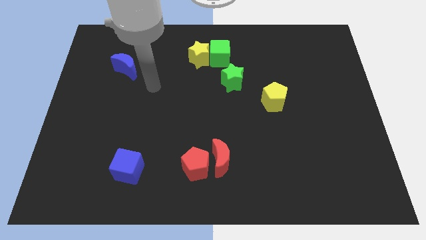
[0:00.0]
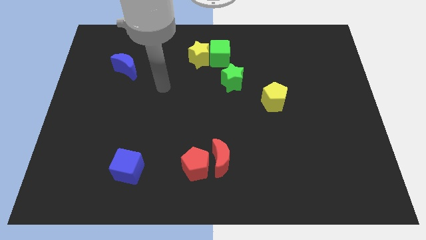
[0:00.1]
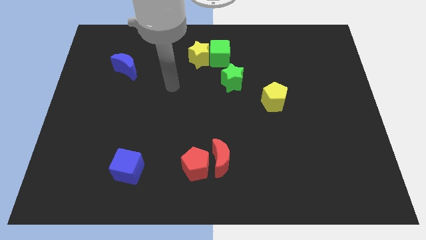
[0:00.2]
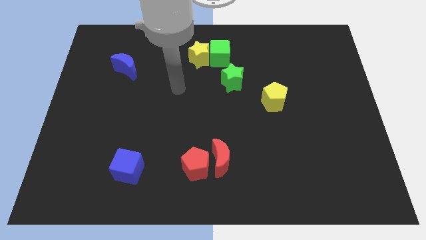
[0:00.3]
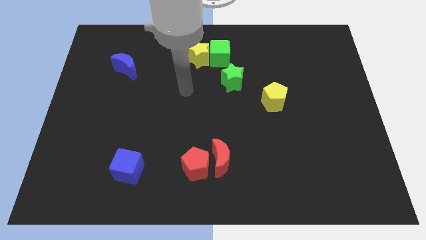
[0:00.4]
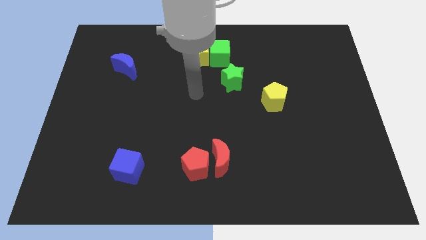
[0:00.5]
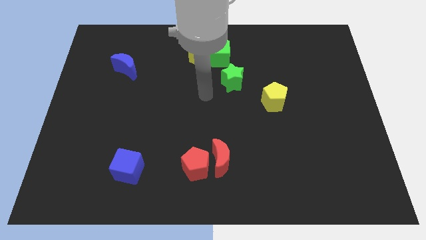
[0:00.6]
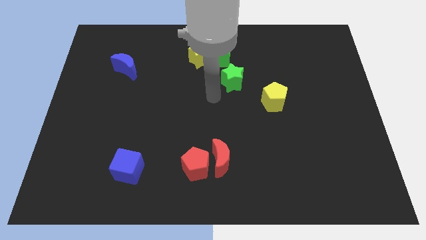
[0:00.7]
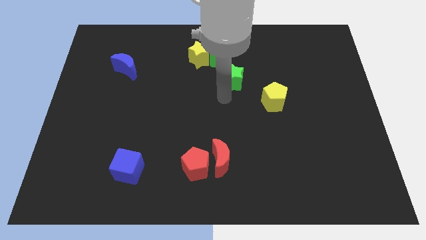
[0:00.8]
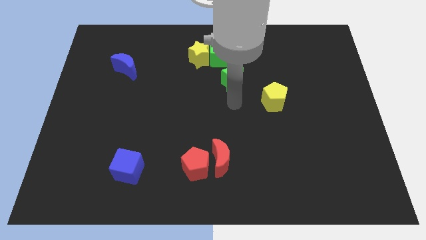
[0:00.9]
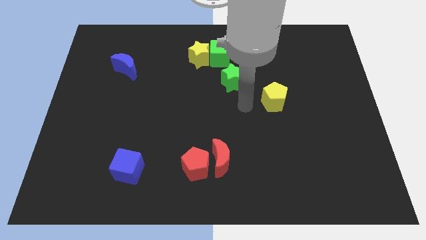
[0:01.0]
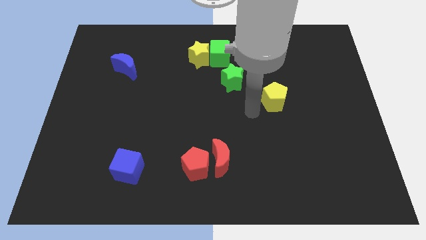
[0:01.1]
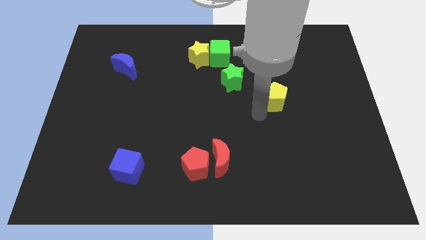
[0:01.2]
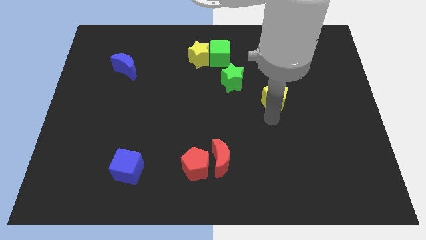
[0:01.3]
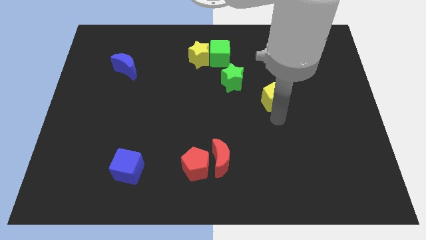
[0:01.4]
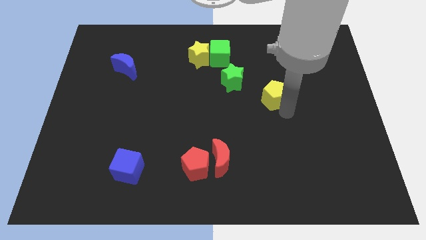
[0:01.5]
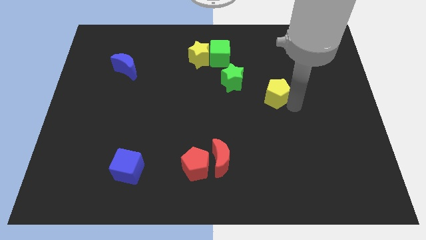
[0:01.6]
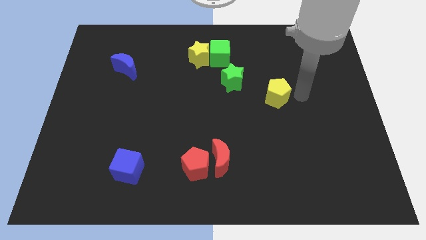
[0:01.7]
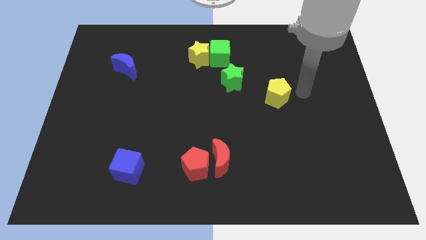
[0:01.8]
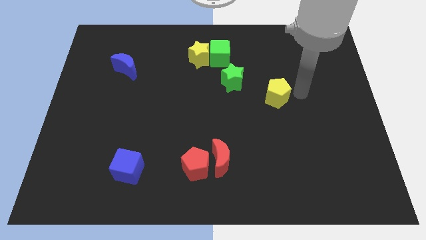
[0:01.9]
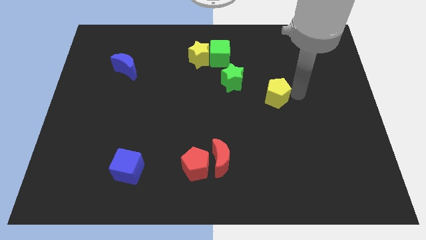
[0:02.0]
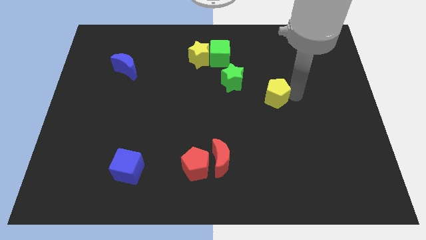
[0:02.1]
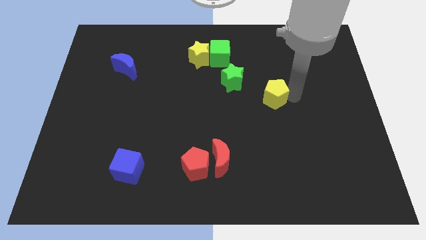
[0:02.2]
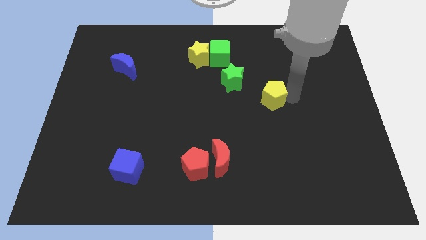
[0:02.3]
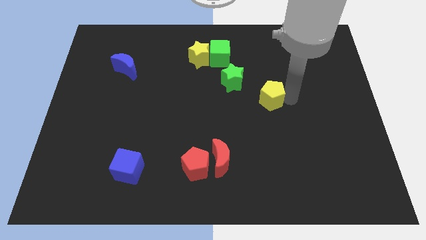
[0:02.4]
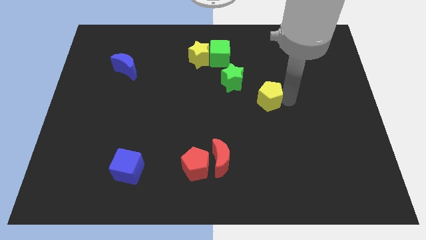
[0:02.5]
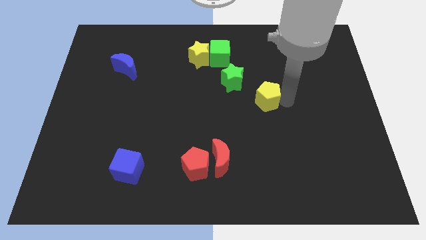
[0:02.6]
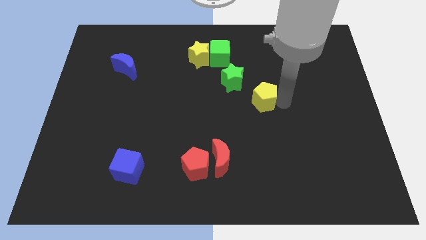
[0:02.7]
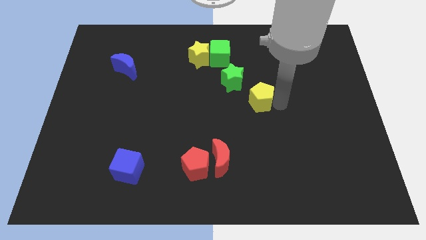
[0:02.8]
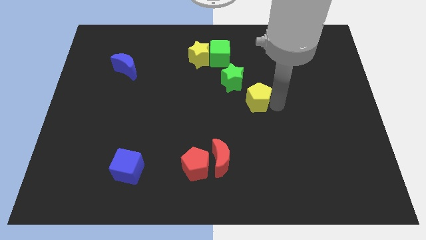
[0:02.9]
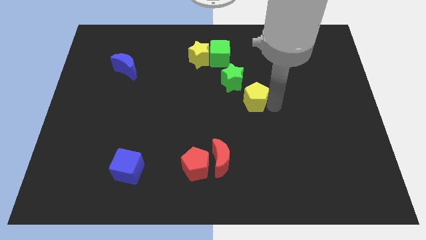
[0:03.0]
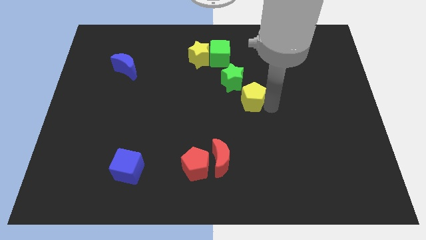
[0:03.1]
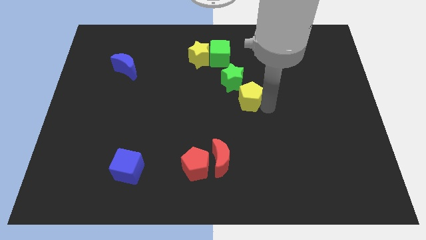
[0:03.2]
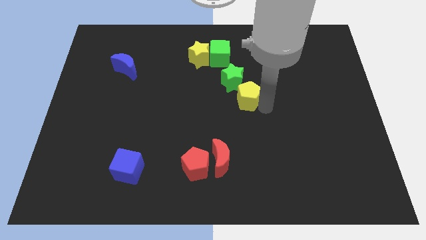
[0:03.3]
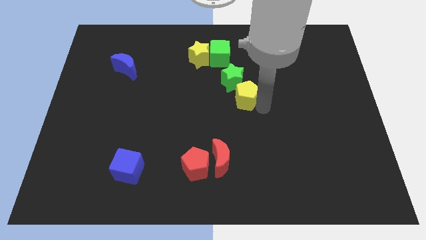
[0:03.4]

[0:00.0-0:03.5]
slide the yellow pentagon somewhat to the left

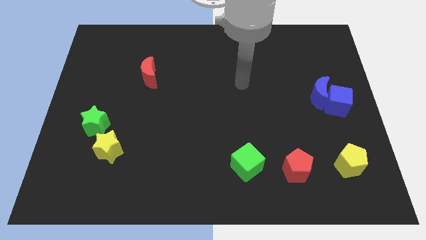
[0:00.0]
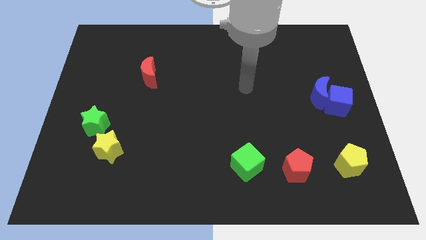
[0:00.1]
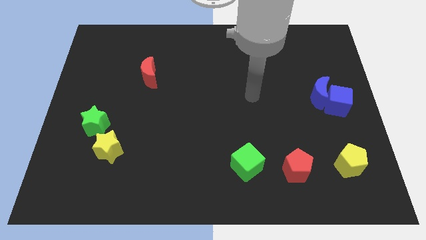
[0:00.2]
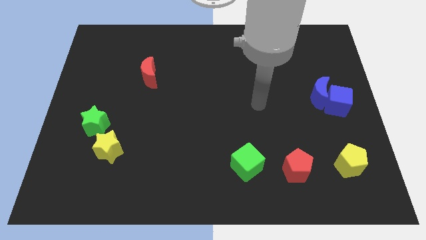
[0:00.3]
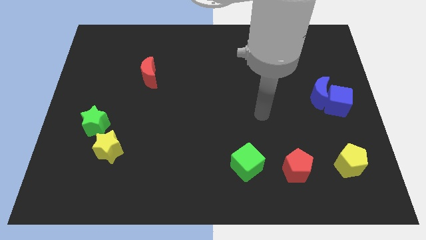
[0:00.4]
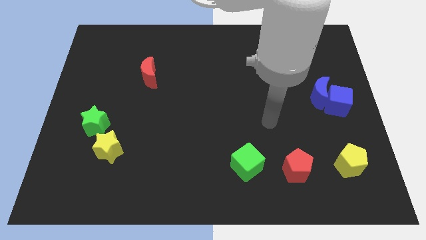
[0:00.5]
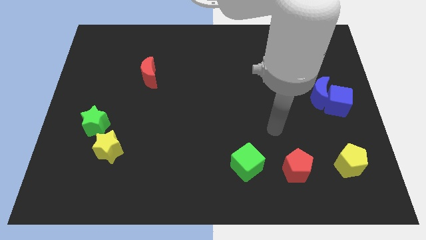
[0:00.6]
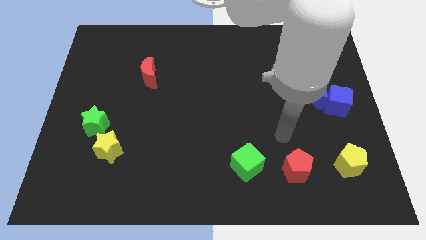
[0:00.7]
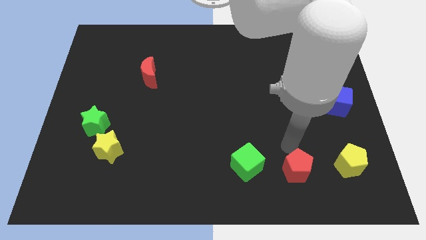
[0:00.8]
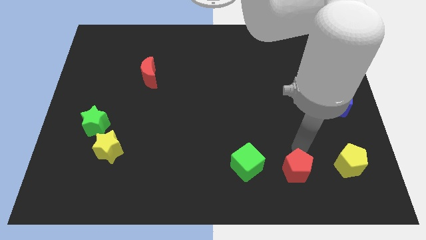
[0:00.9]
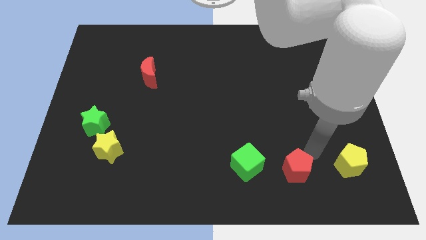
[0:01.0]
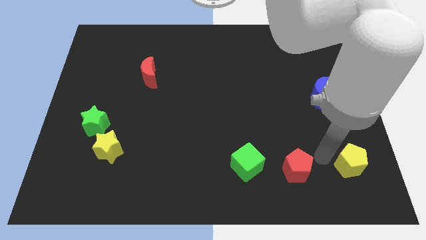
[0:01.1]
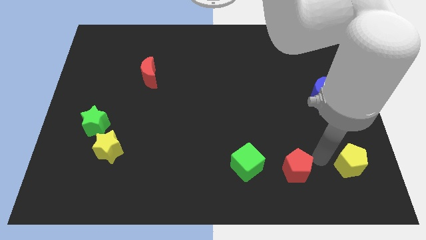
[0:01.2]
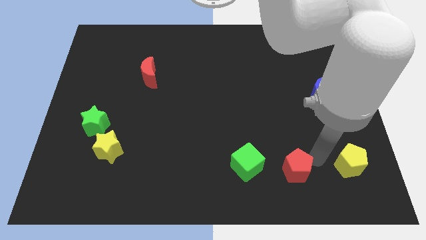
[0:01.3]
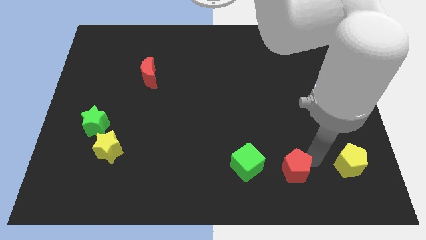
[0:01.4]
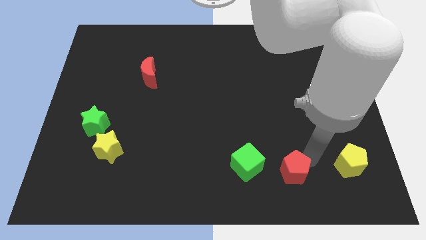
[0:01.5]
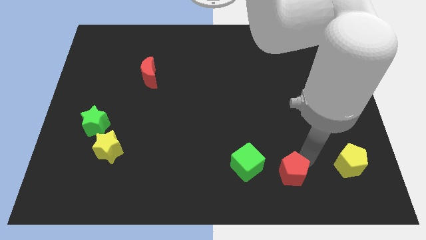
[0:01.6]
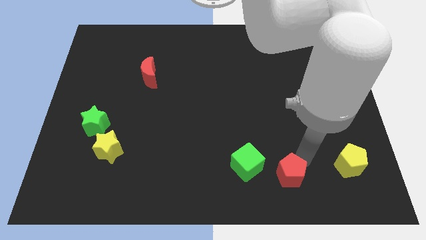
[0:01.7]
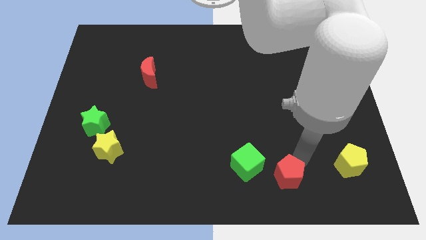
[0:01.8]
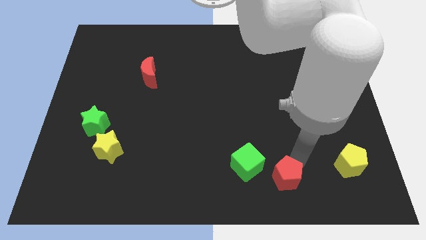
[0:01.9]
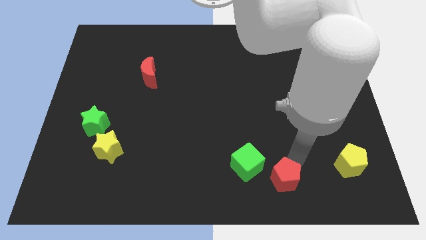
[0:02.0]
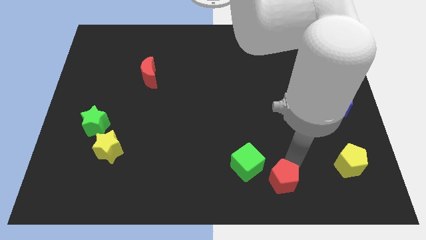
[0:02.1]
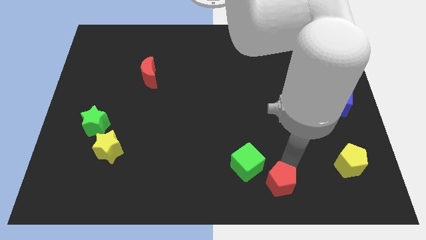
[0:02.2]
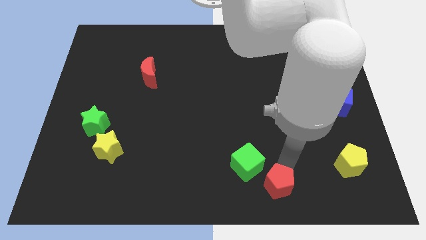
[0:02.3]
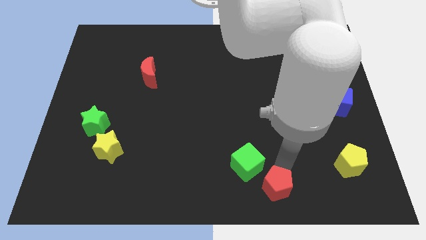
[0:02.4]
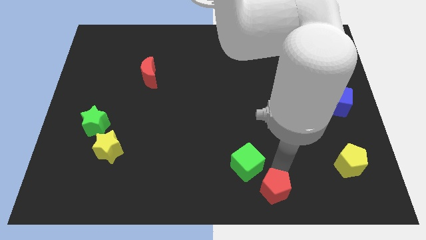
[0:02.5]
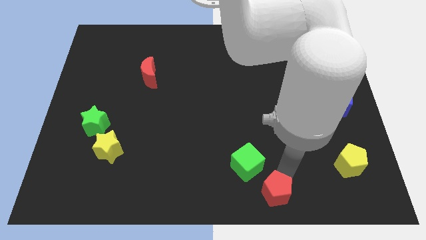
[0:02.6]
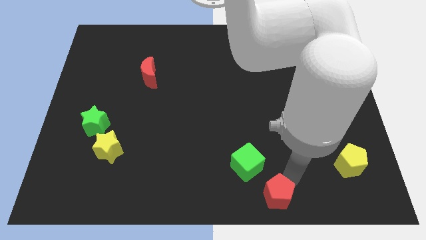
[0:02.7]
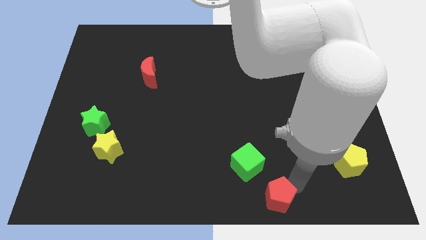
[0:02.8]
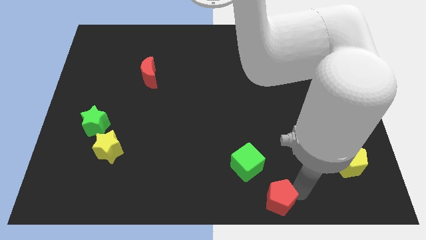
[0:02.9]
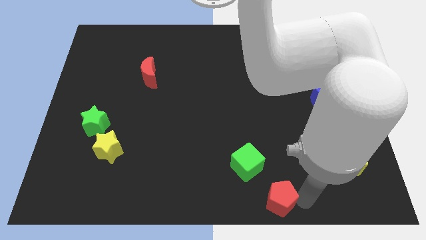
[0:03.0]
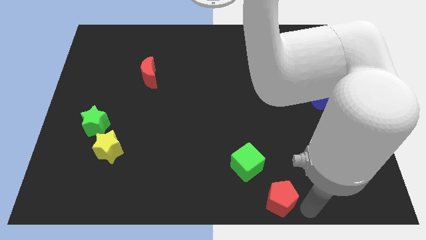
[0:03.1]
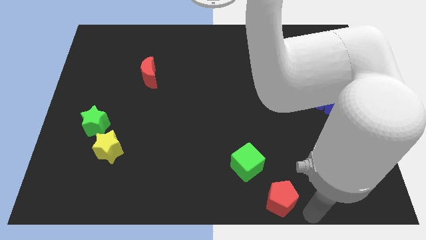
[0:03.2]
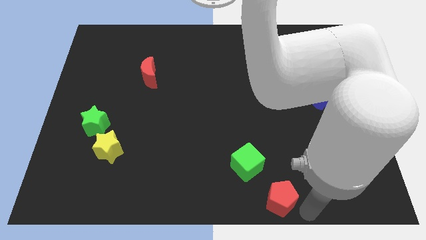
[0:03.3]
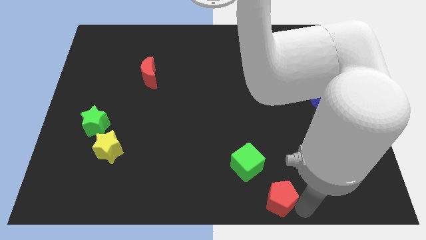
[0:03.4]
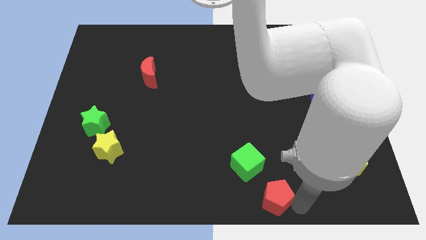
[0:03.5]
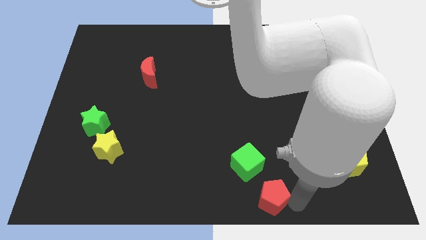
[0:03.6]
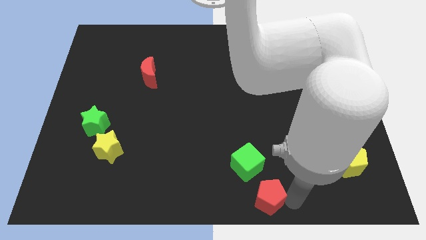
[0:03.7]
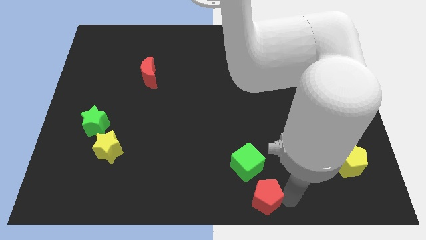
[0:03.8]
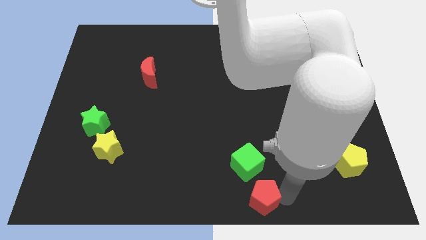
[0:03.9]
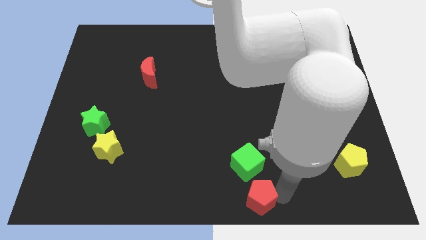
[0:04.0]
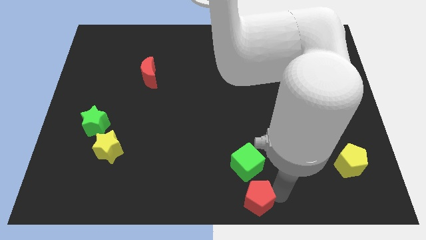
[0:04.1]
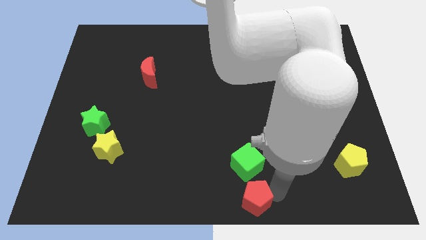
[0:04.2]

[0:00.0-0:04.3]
move the red pentagon left a bit
